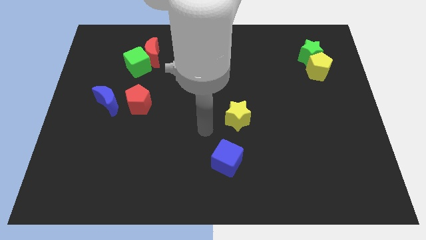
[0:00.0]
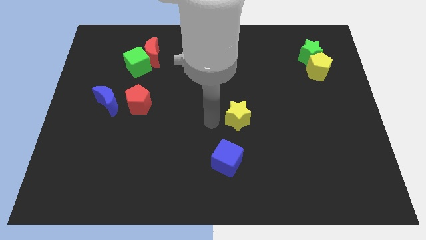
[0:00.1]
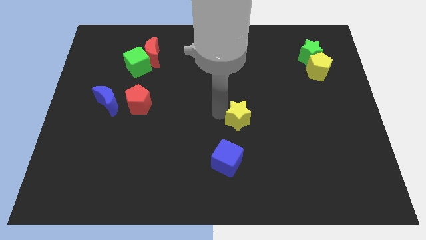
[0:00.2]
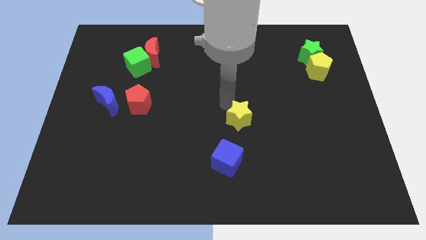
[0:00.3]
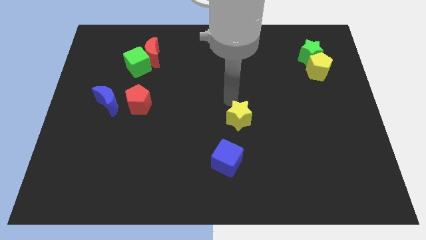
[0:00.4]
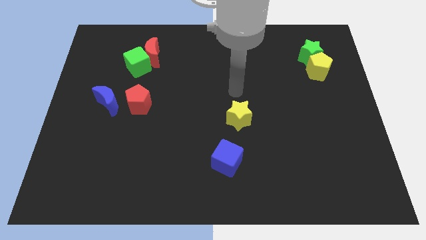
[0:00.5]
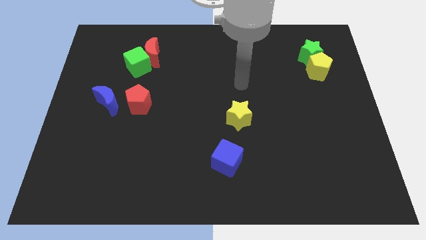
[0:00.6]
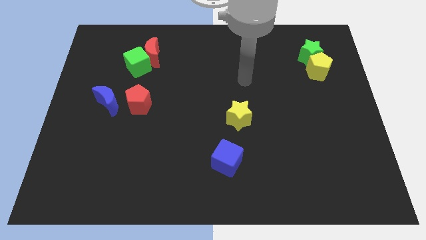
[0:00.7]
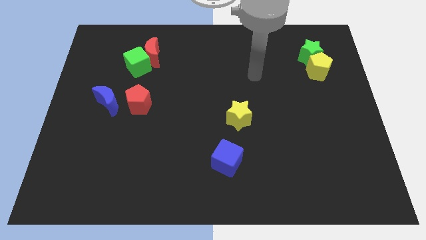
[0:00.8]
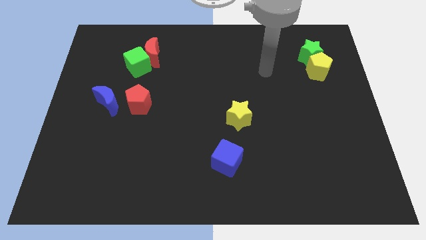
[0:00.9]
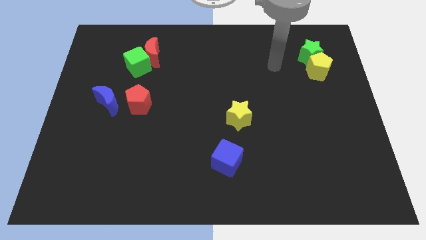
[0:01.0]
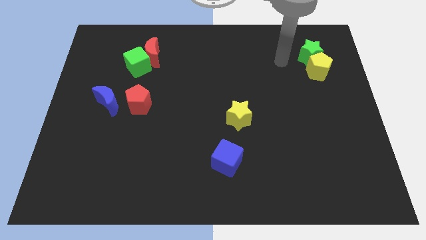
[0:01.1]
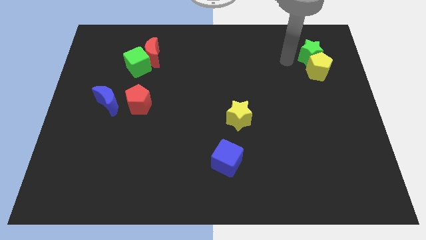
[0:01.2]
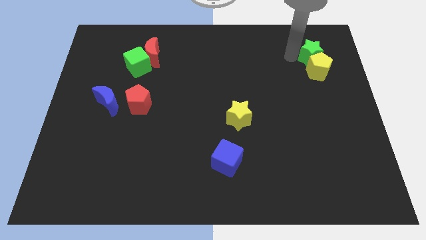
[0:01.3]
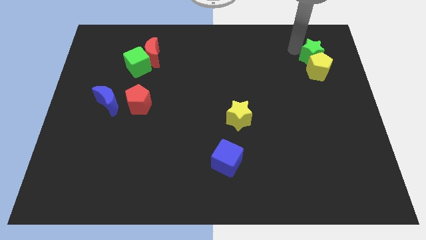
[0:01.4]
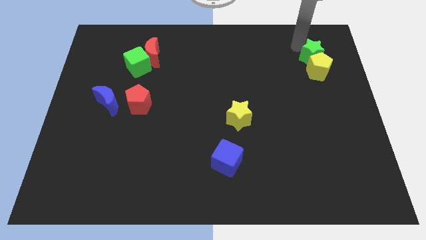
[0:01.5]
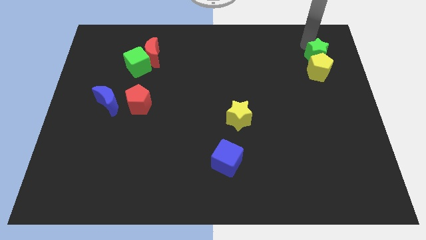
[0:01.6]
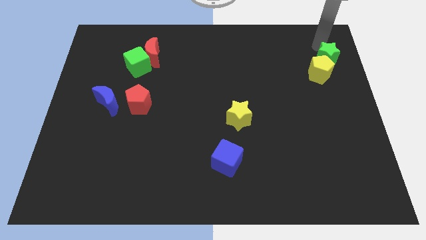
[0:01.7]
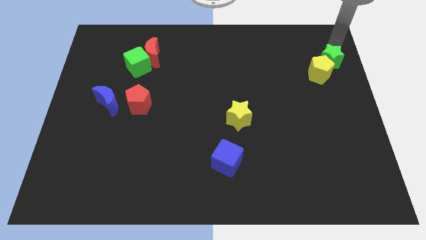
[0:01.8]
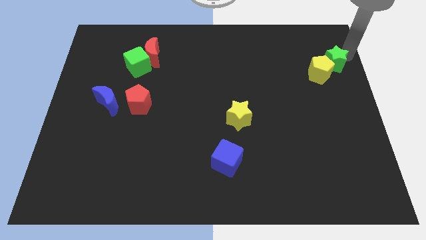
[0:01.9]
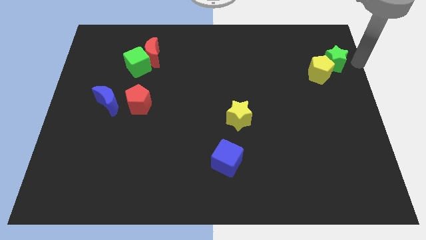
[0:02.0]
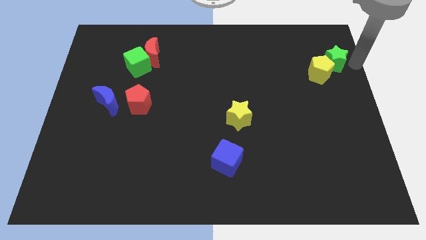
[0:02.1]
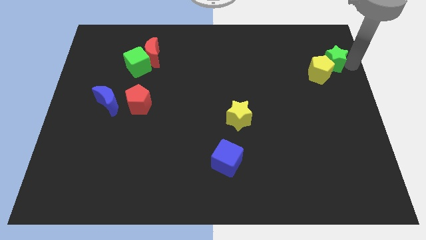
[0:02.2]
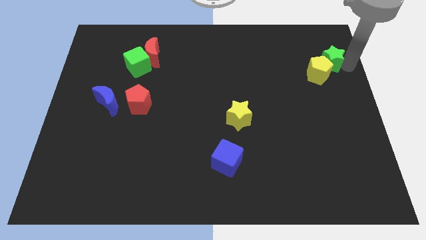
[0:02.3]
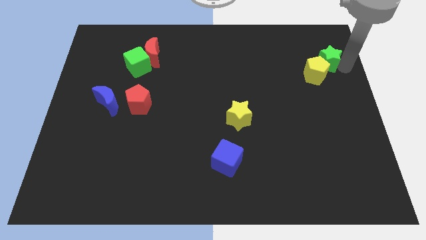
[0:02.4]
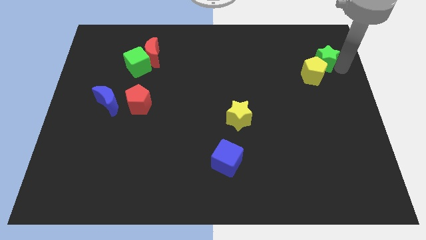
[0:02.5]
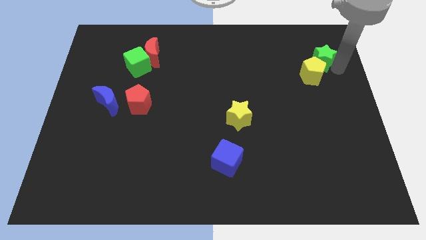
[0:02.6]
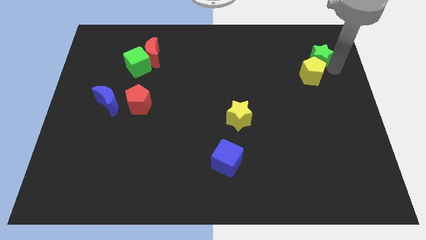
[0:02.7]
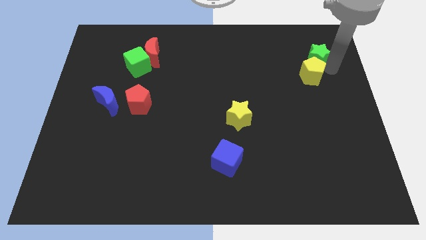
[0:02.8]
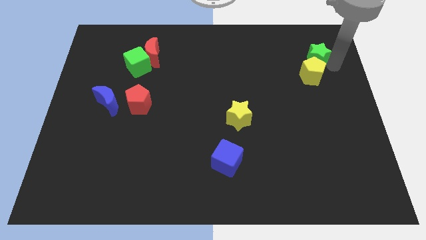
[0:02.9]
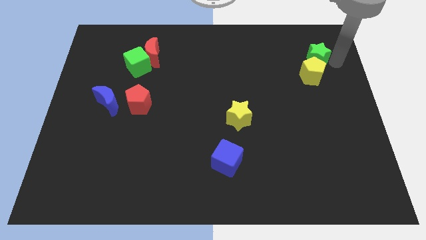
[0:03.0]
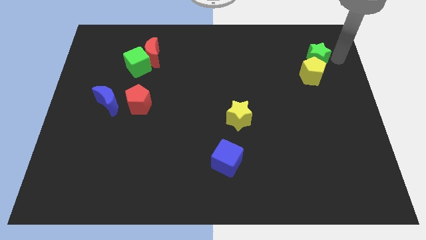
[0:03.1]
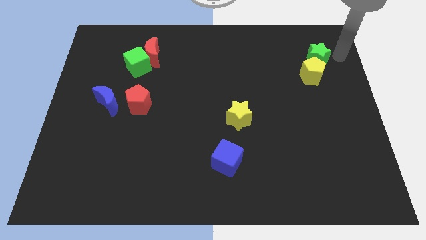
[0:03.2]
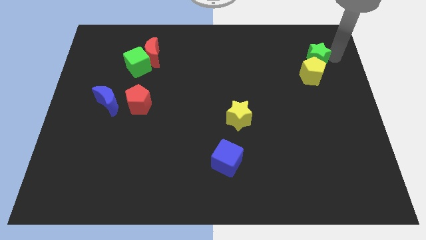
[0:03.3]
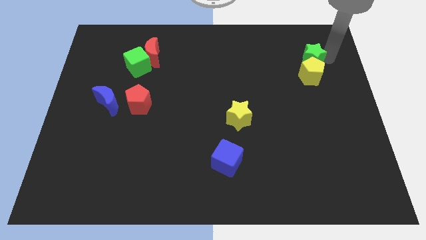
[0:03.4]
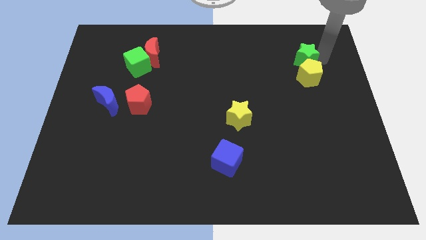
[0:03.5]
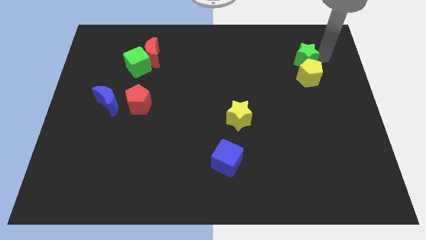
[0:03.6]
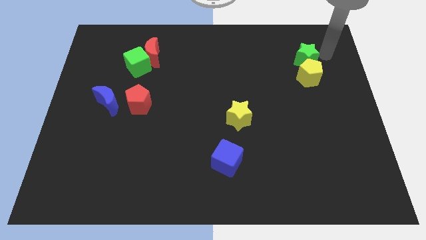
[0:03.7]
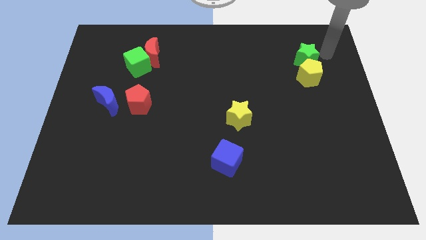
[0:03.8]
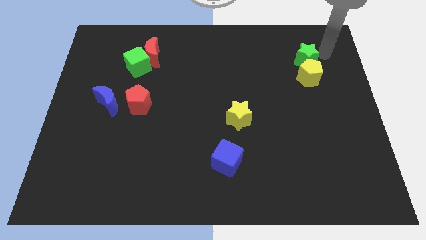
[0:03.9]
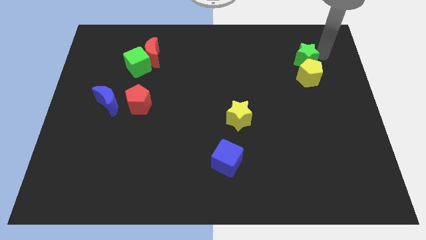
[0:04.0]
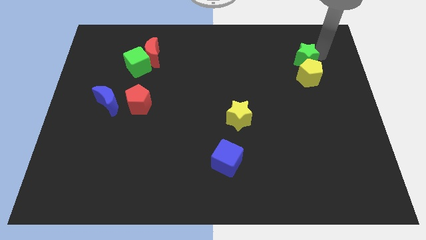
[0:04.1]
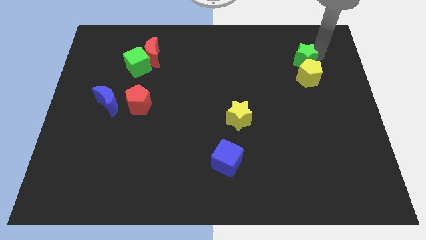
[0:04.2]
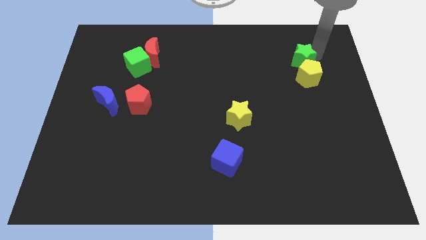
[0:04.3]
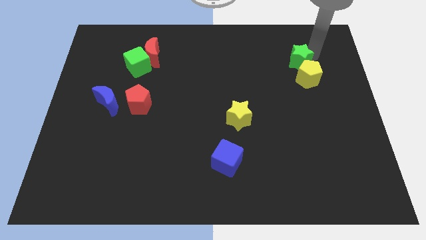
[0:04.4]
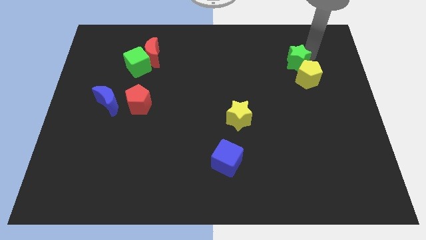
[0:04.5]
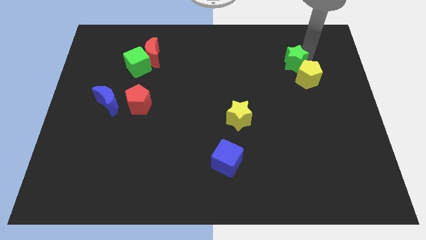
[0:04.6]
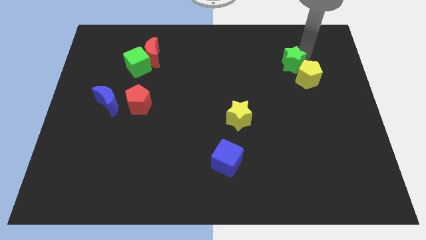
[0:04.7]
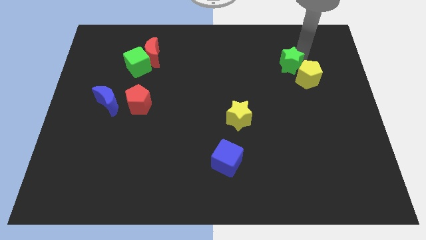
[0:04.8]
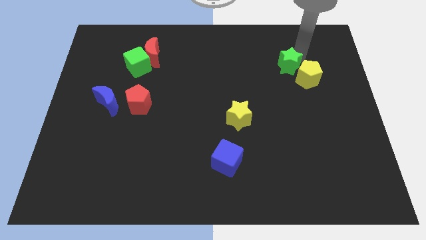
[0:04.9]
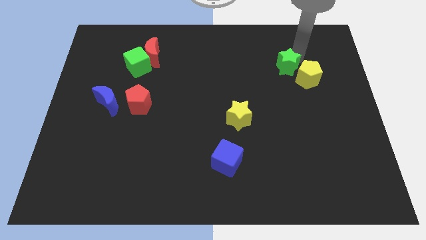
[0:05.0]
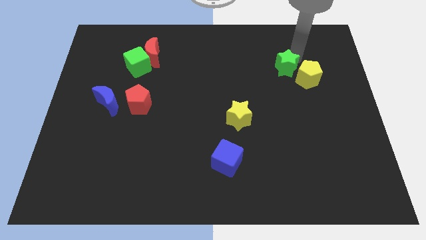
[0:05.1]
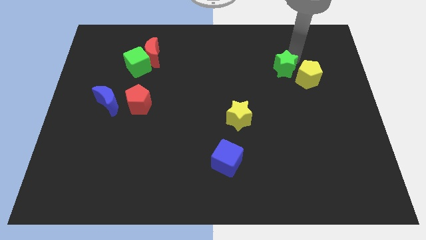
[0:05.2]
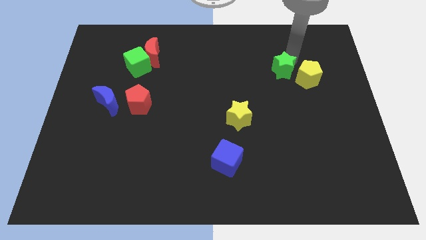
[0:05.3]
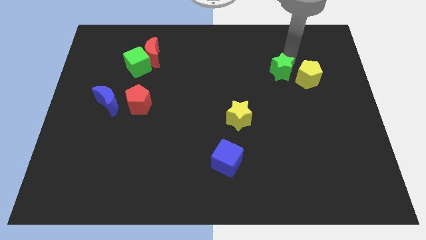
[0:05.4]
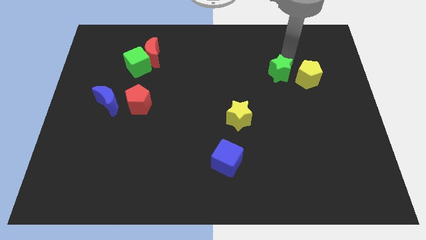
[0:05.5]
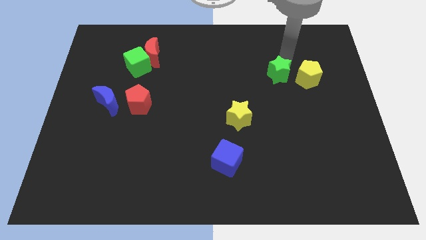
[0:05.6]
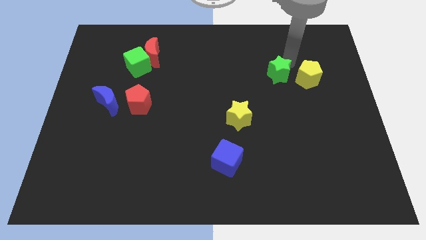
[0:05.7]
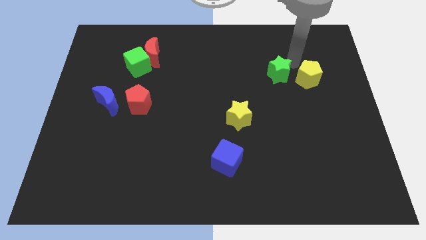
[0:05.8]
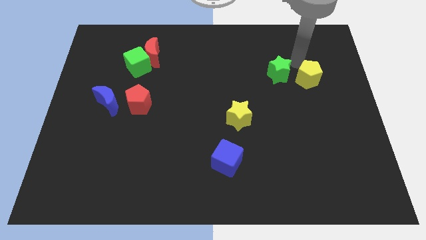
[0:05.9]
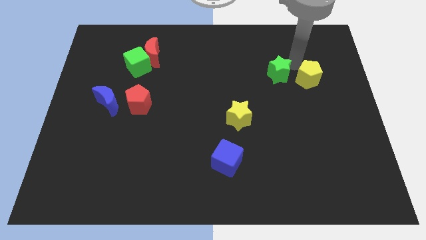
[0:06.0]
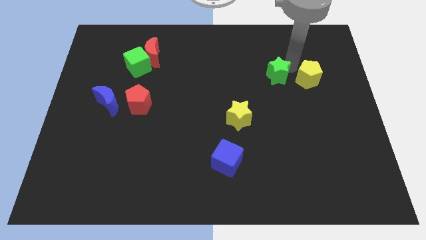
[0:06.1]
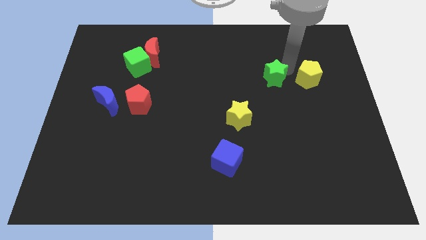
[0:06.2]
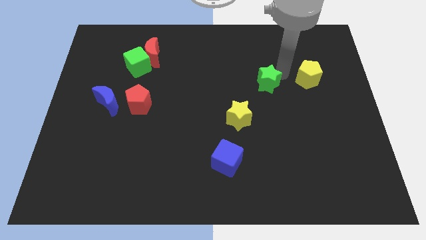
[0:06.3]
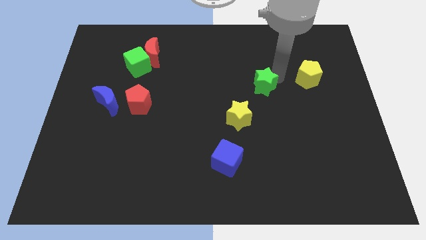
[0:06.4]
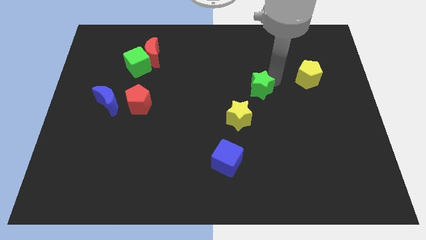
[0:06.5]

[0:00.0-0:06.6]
put the green star to the center of the board
